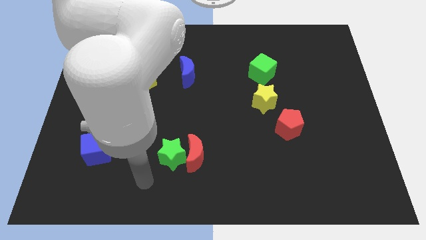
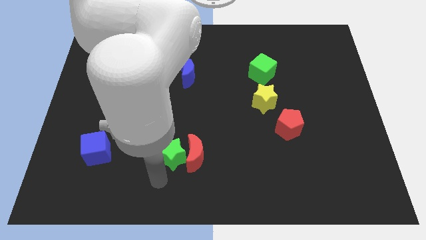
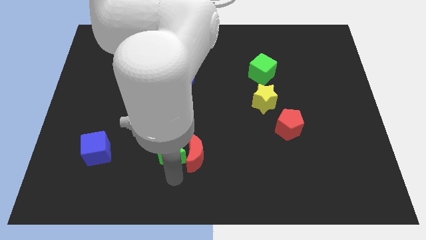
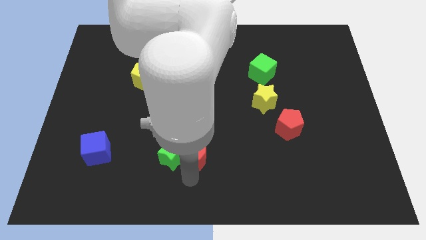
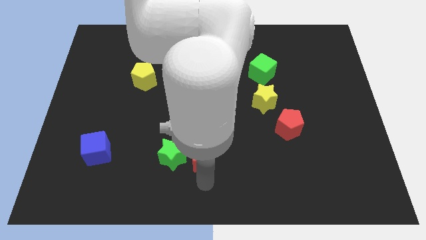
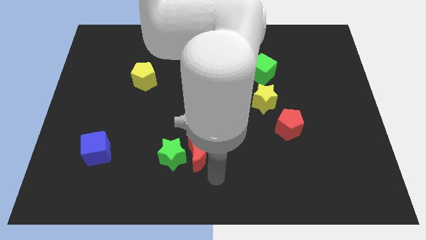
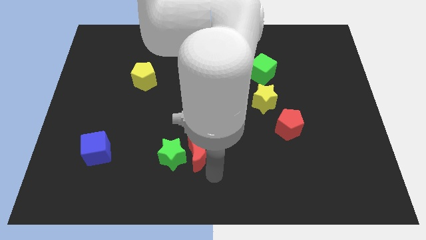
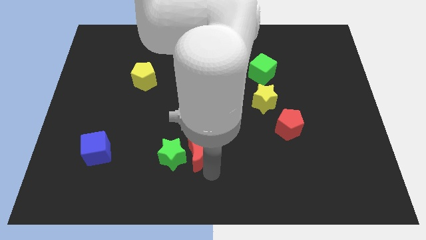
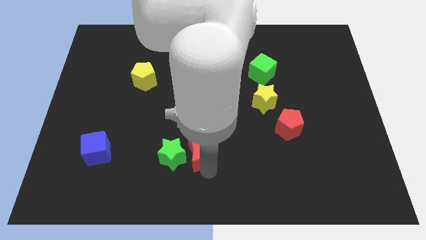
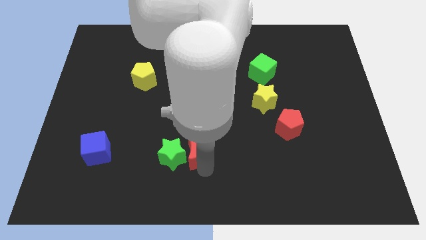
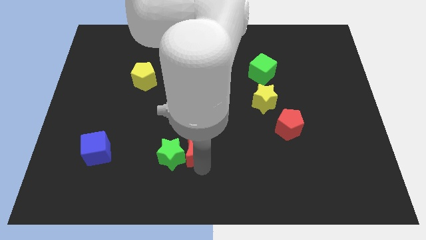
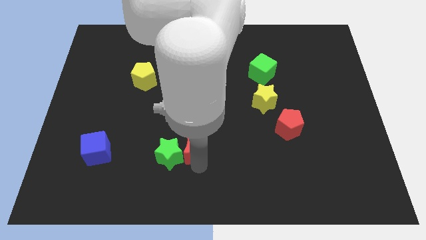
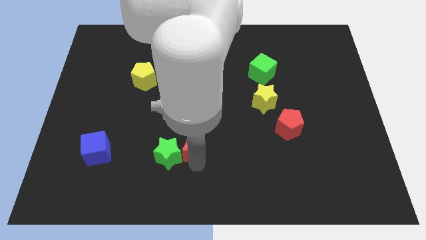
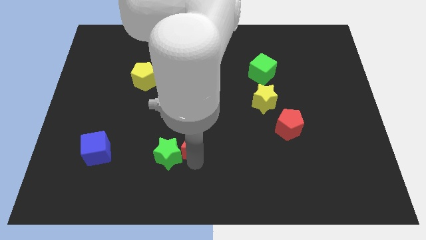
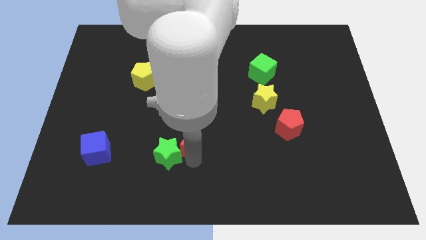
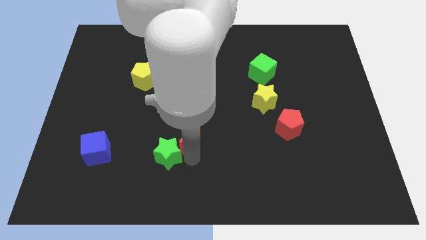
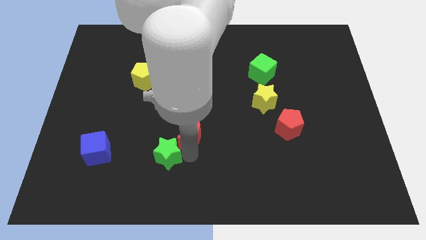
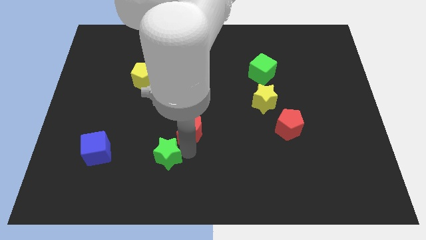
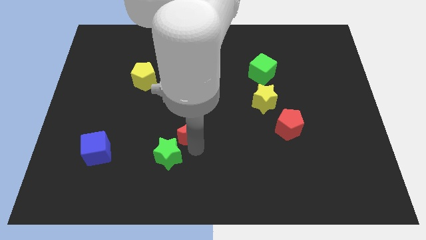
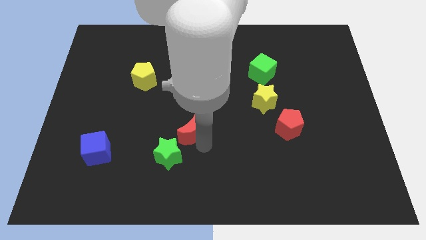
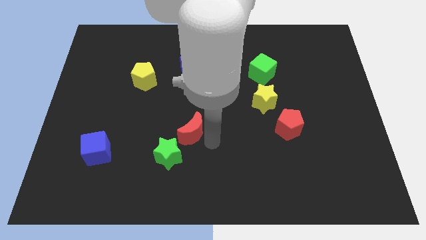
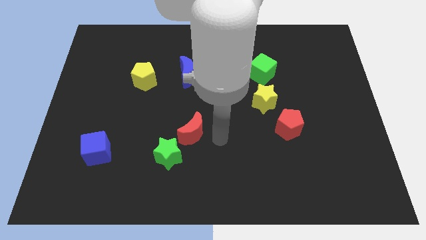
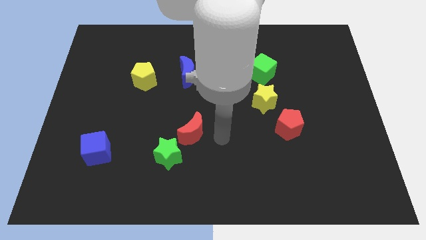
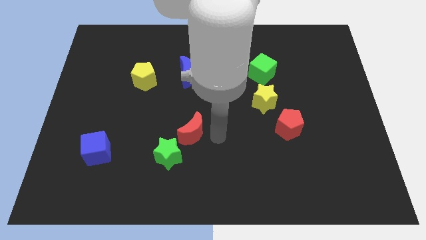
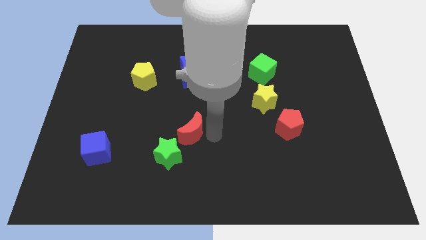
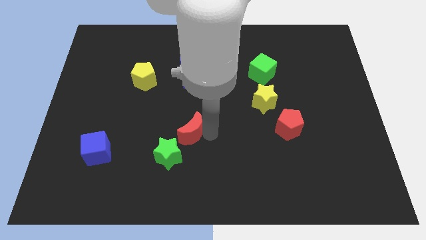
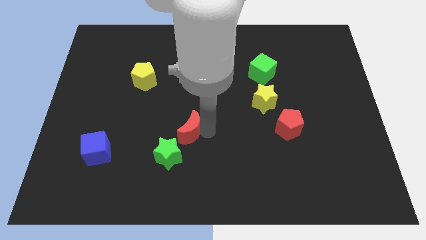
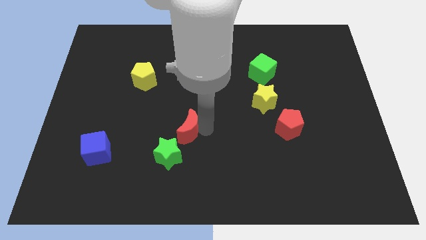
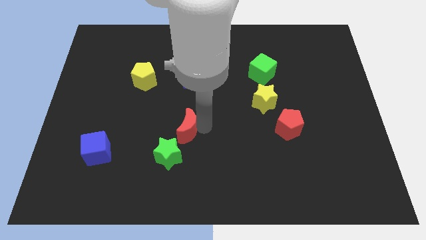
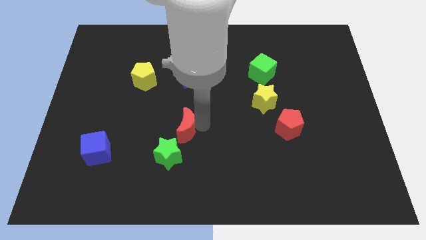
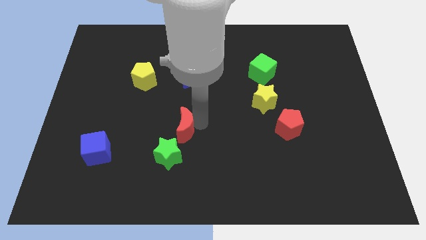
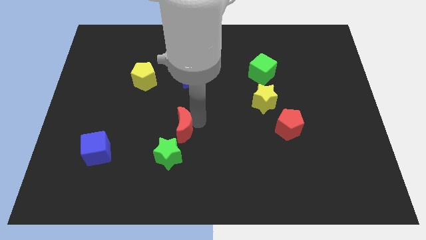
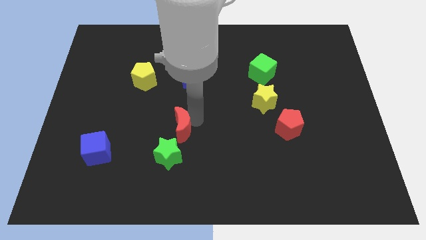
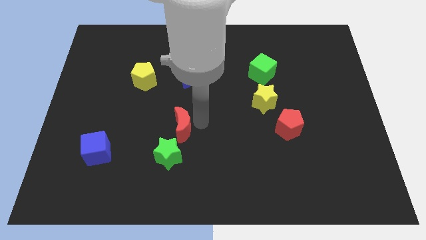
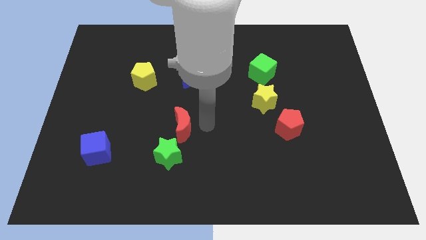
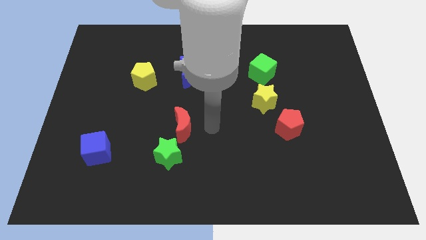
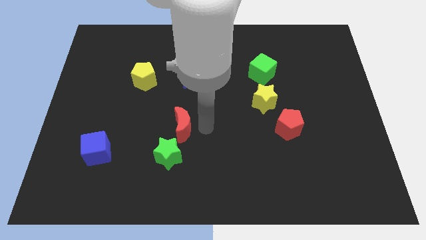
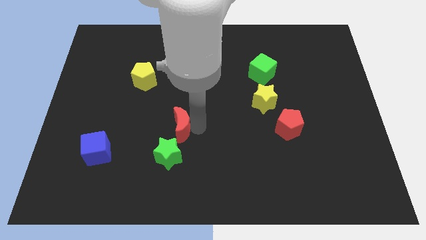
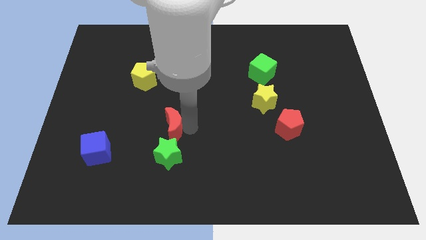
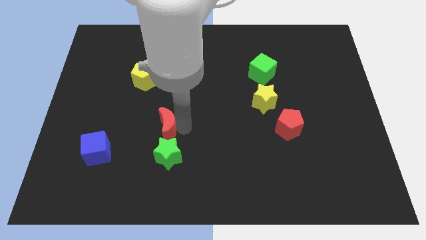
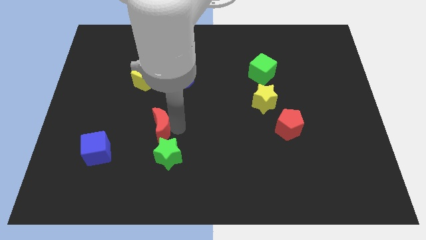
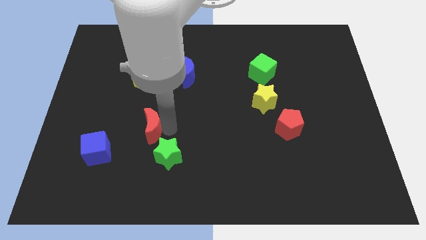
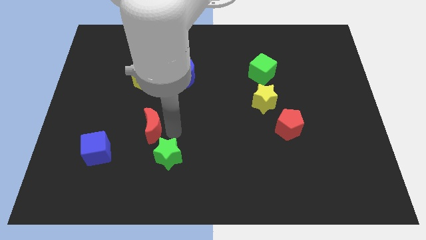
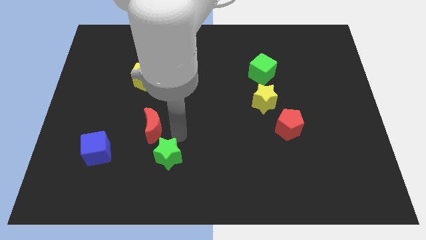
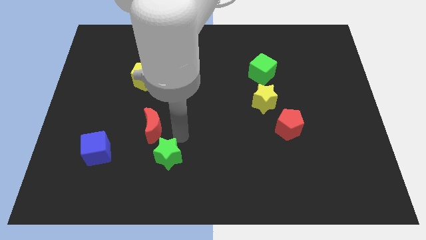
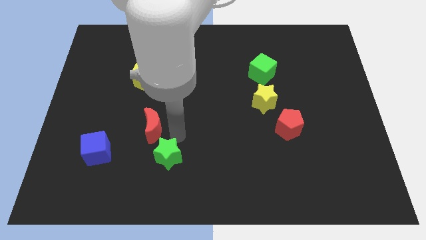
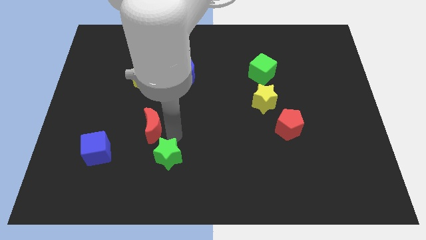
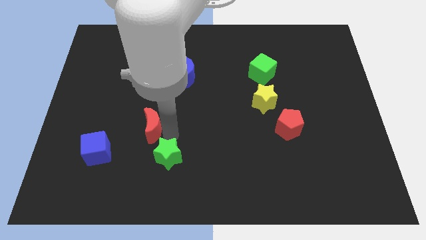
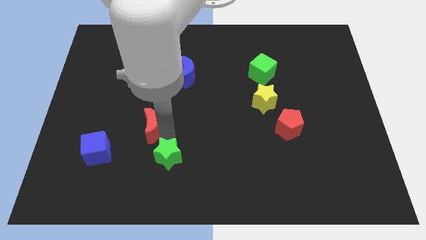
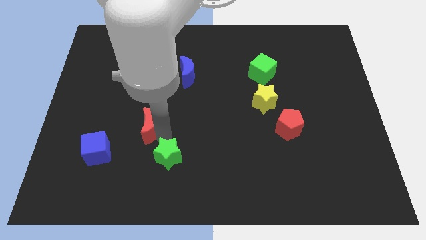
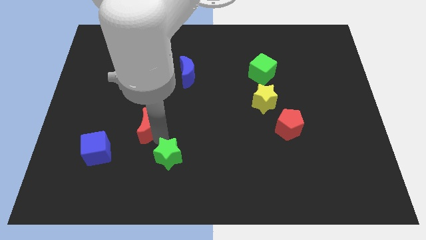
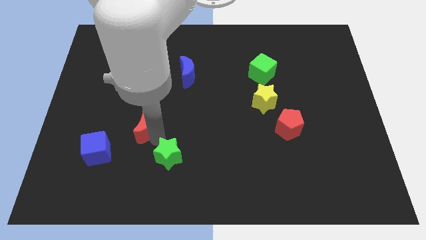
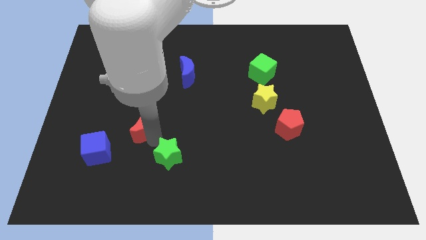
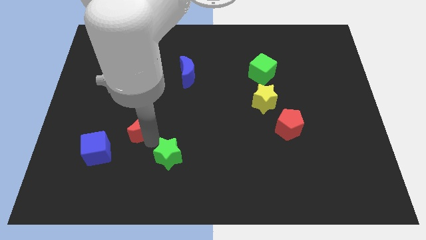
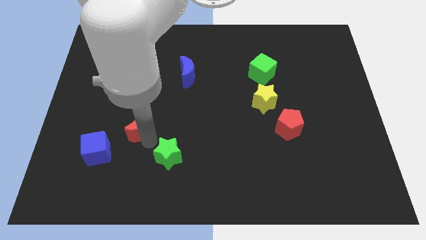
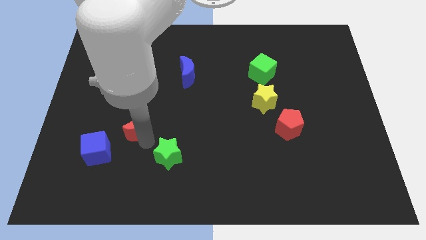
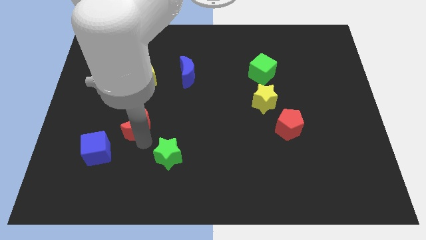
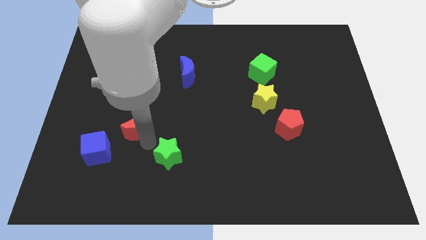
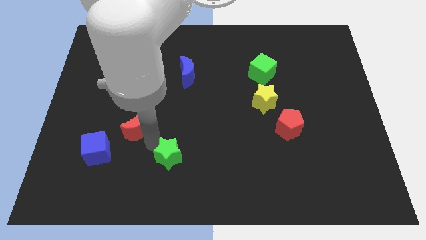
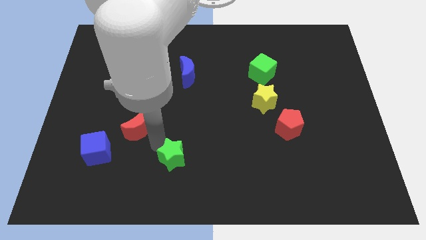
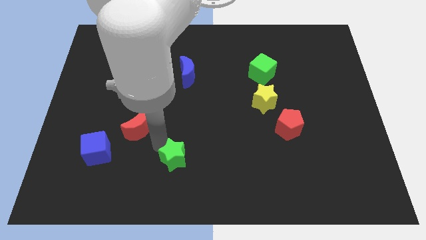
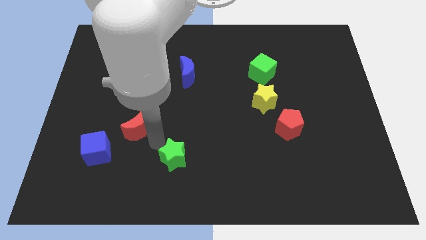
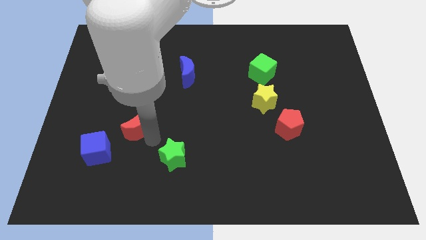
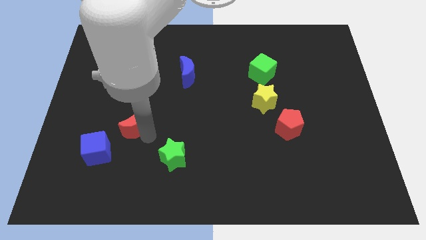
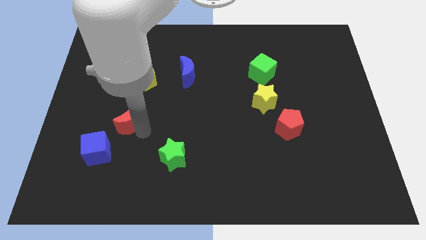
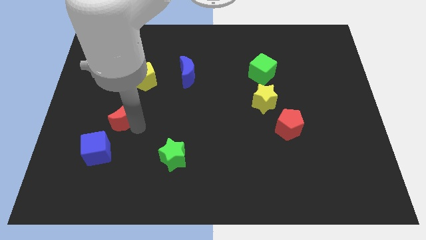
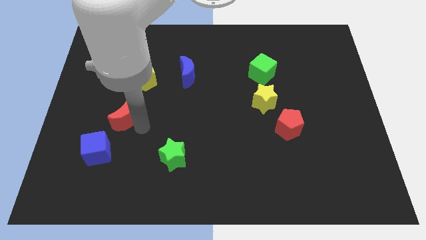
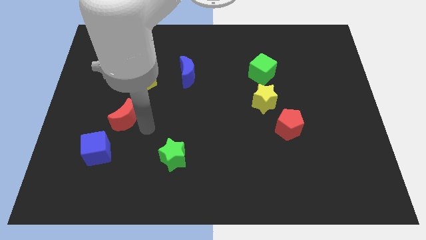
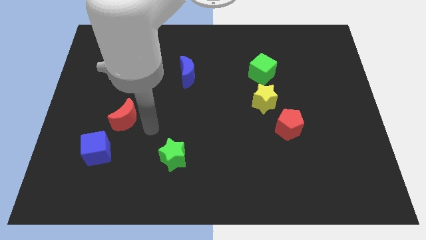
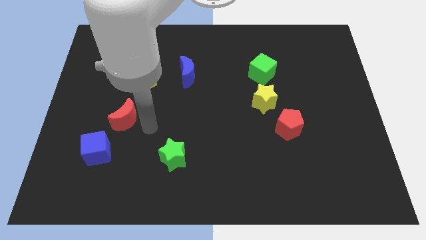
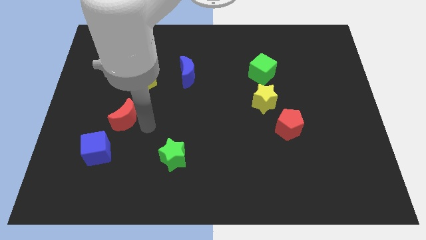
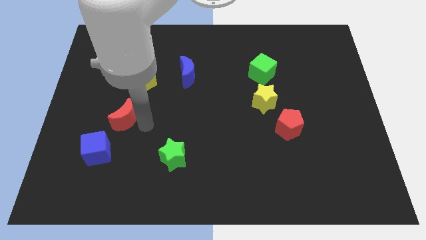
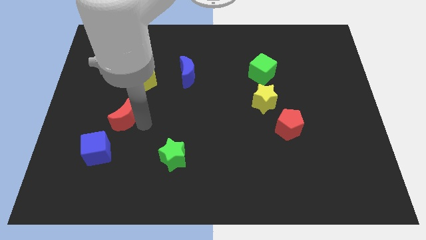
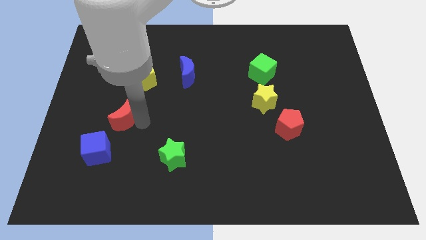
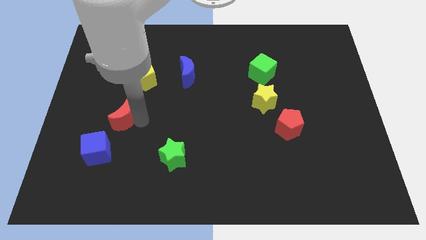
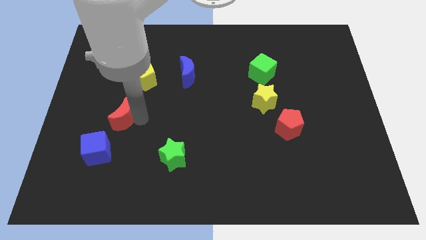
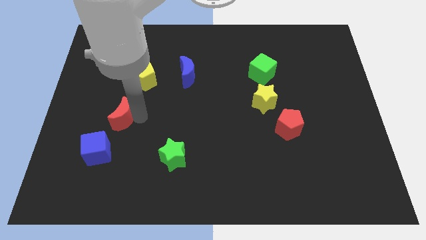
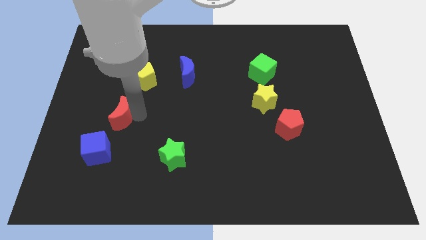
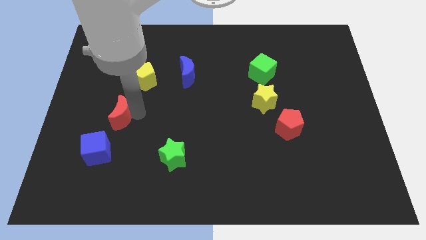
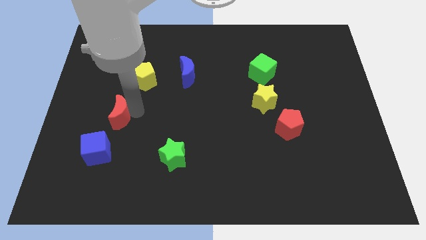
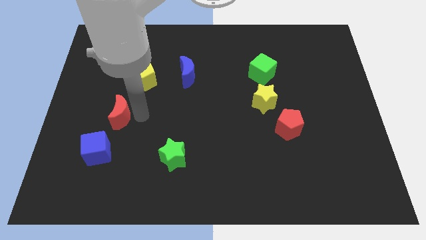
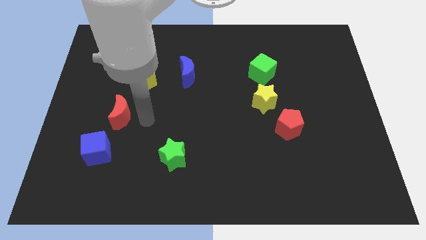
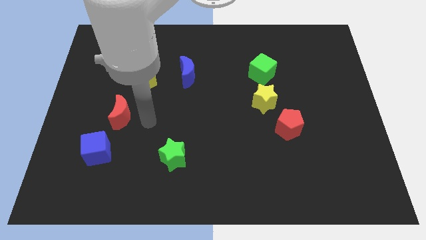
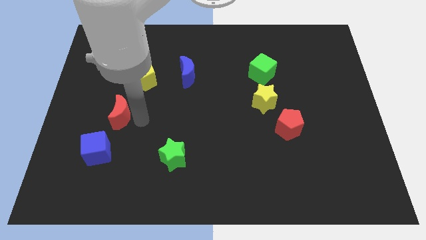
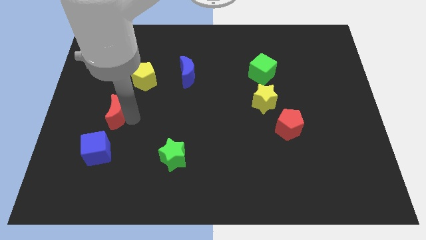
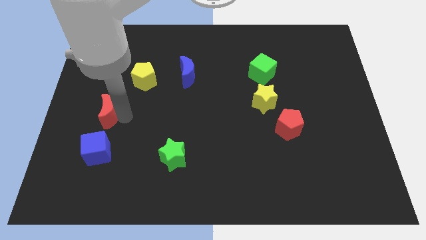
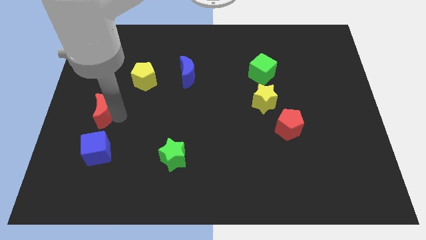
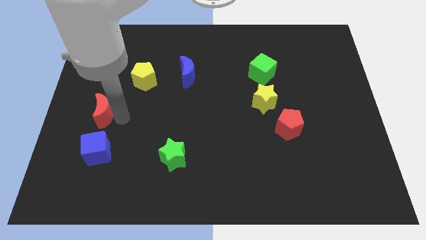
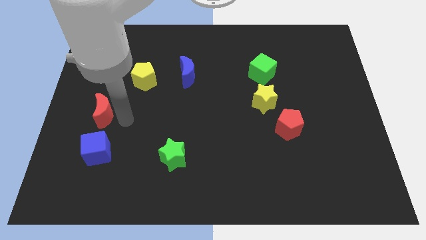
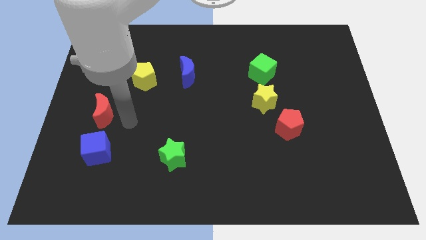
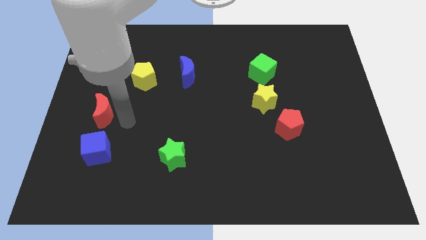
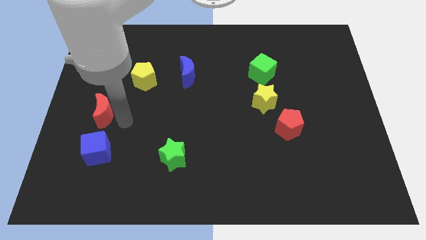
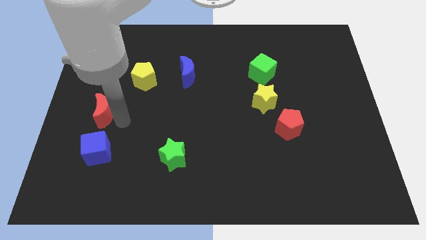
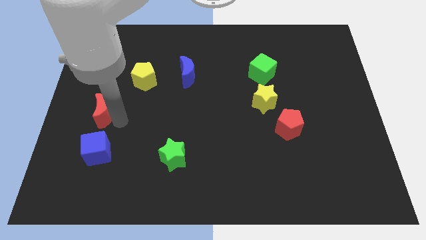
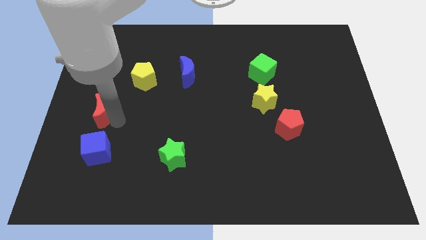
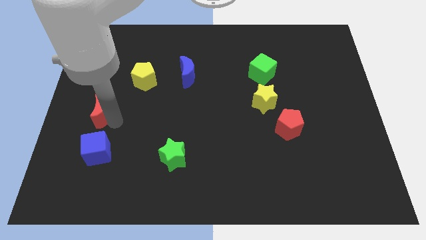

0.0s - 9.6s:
push the red moon to the left side
